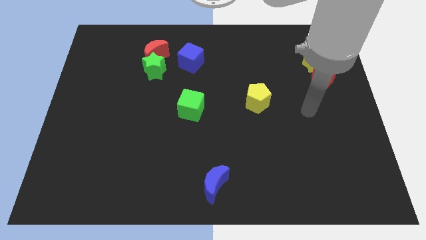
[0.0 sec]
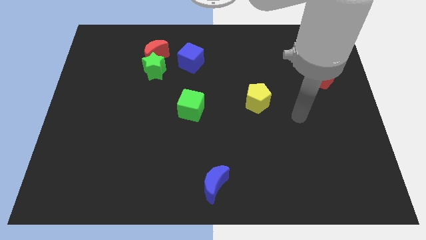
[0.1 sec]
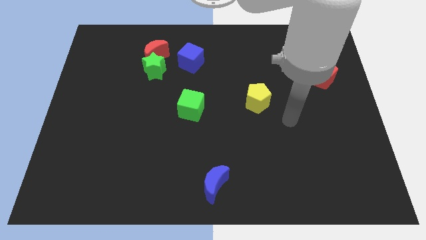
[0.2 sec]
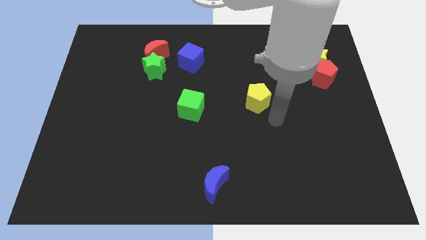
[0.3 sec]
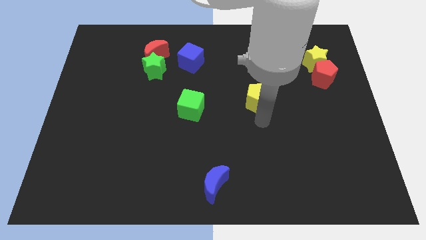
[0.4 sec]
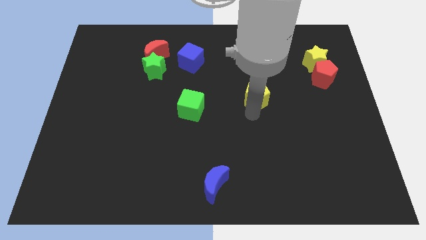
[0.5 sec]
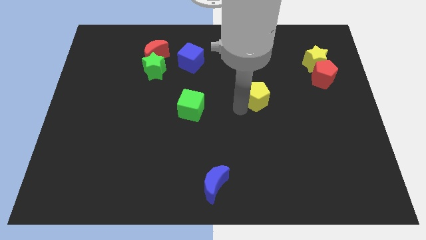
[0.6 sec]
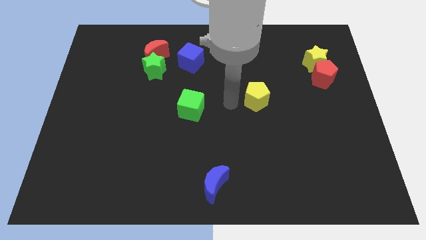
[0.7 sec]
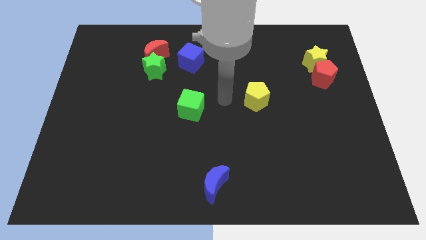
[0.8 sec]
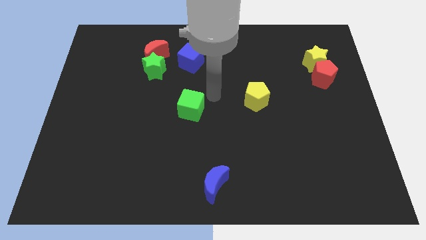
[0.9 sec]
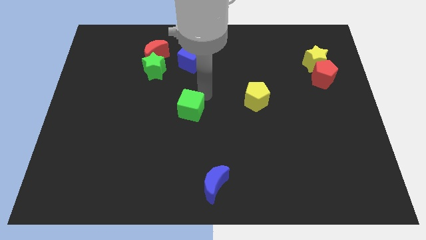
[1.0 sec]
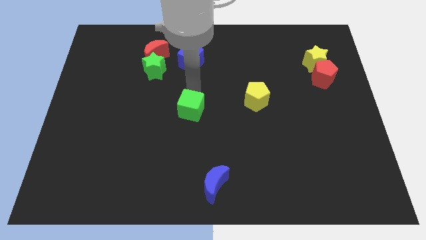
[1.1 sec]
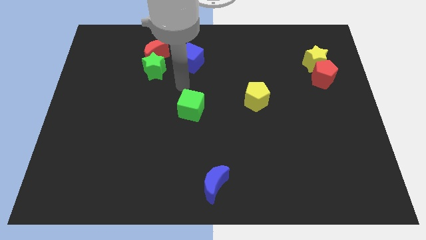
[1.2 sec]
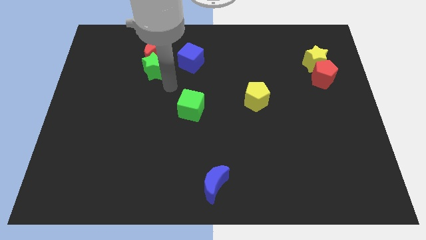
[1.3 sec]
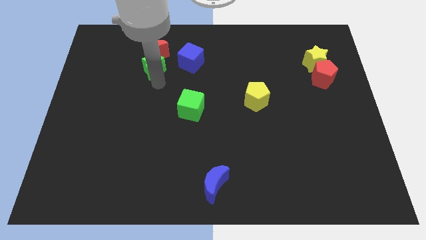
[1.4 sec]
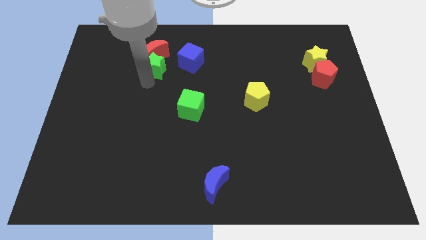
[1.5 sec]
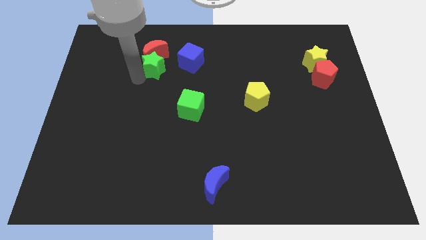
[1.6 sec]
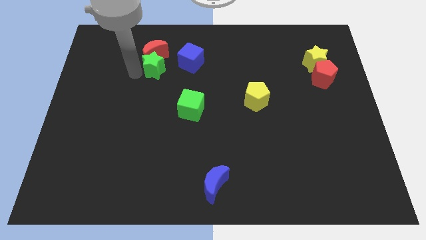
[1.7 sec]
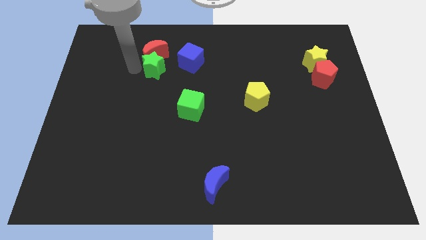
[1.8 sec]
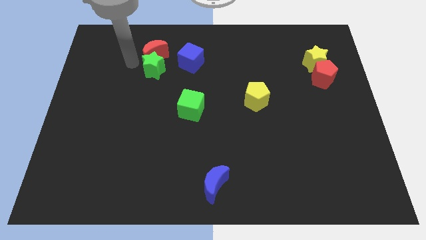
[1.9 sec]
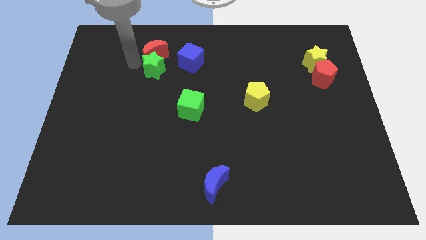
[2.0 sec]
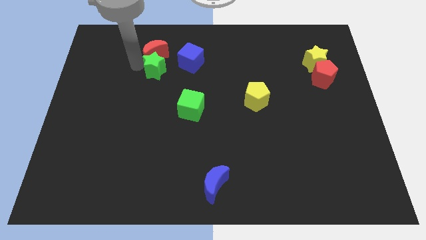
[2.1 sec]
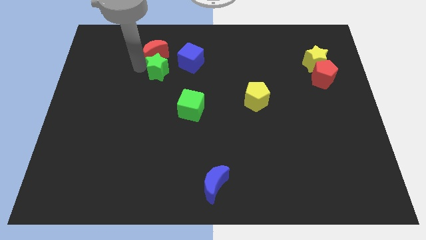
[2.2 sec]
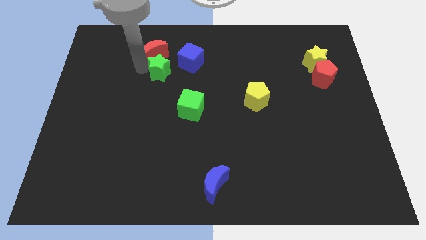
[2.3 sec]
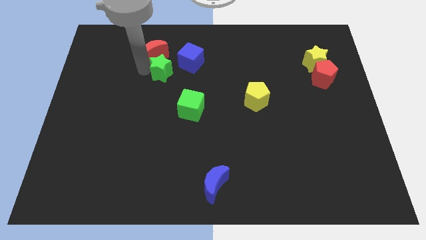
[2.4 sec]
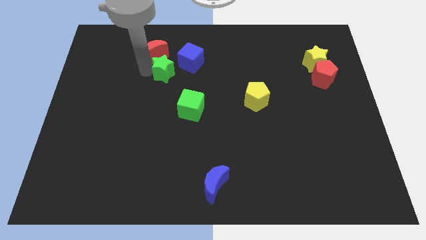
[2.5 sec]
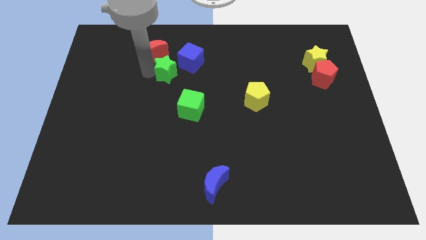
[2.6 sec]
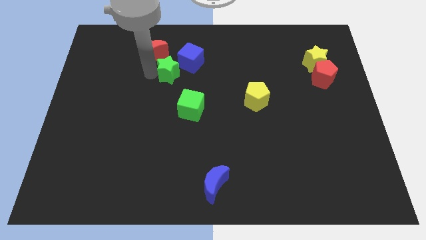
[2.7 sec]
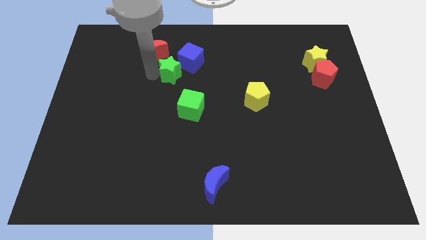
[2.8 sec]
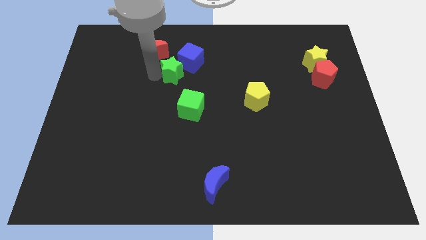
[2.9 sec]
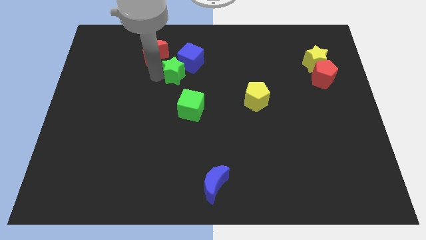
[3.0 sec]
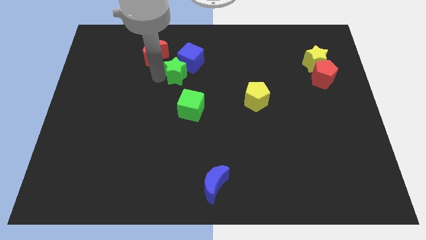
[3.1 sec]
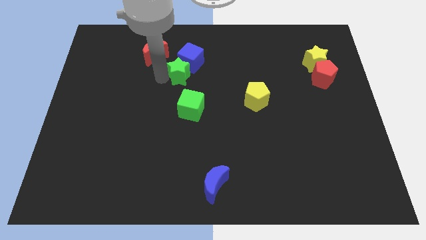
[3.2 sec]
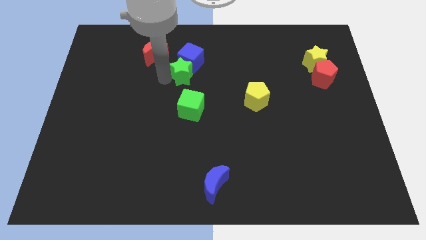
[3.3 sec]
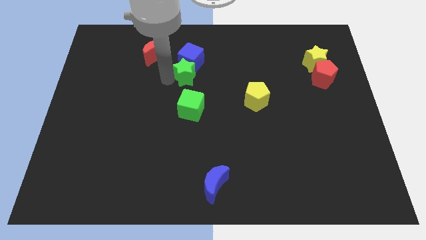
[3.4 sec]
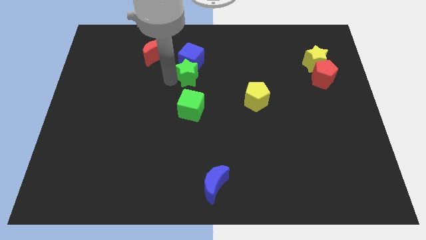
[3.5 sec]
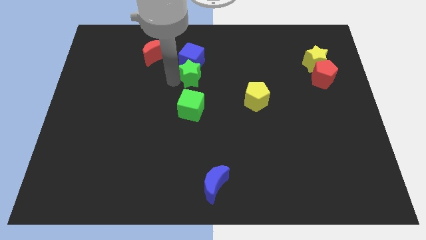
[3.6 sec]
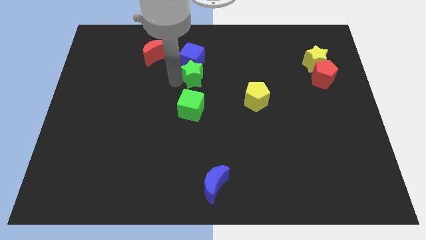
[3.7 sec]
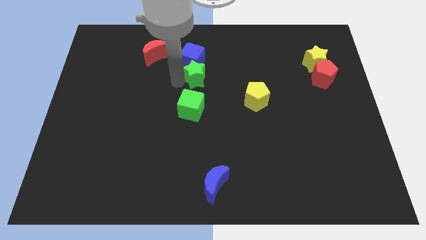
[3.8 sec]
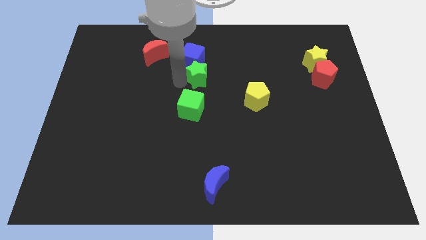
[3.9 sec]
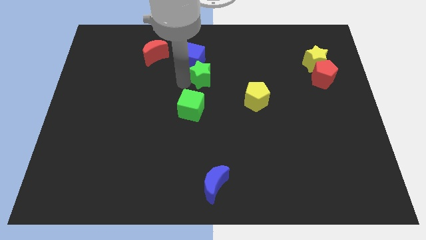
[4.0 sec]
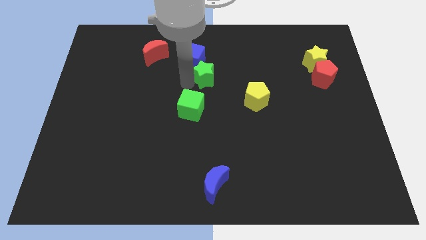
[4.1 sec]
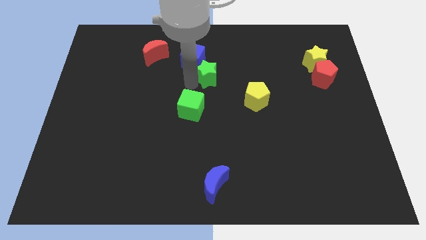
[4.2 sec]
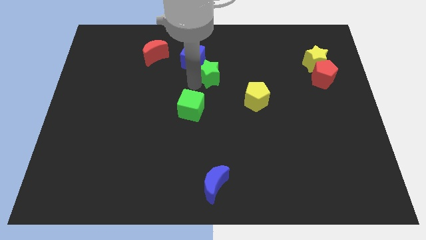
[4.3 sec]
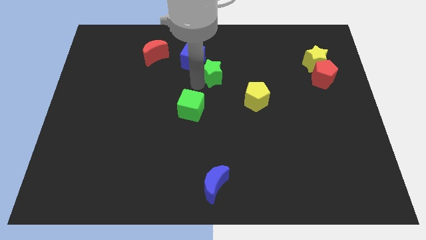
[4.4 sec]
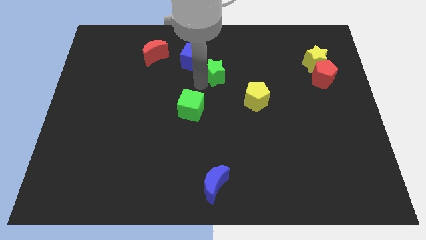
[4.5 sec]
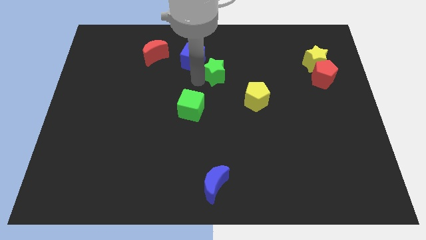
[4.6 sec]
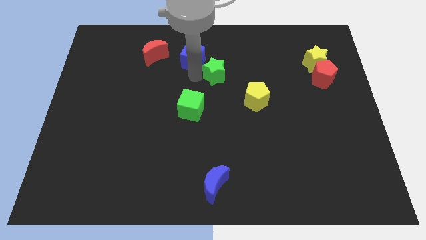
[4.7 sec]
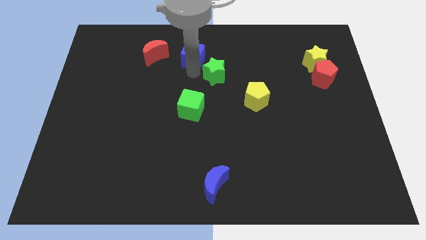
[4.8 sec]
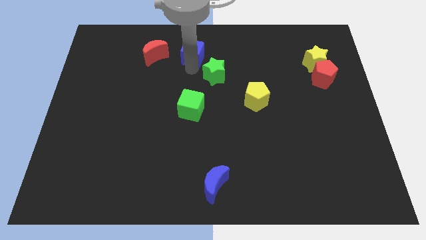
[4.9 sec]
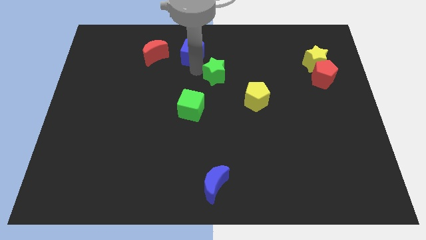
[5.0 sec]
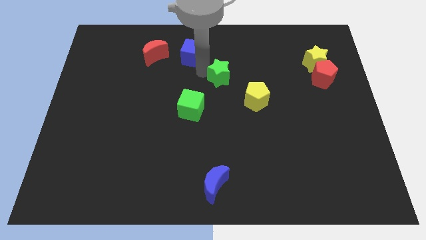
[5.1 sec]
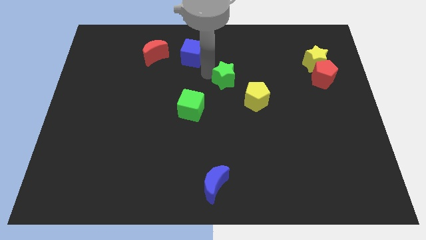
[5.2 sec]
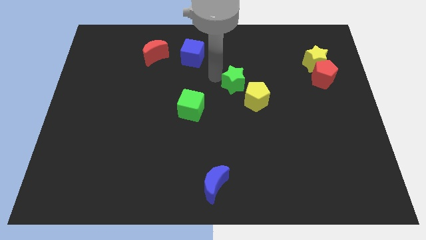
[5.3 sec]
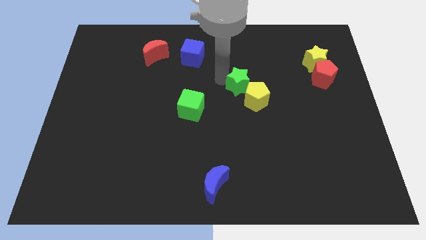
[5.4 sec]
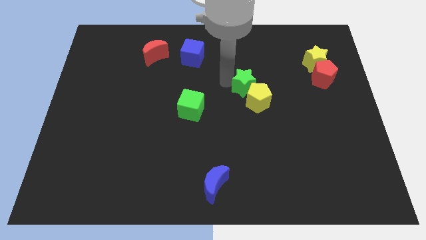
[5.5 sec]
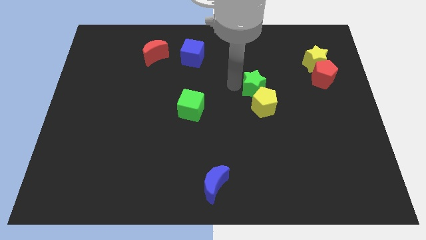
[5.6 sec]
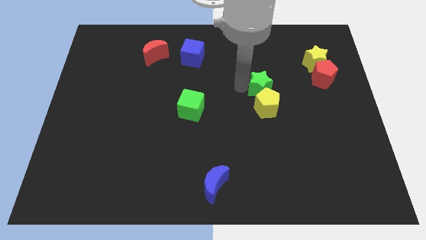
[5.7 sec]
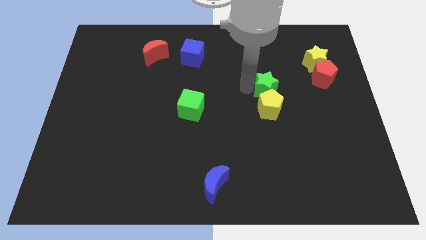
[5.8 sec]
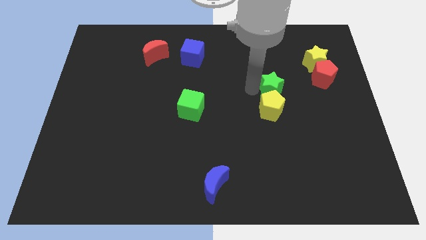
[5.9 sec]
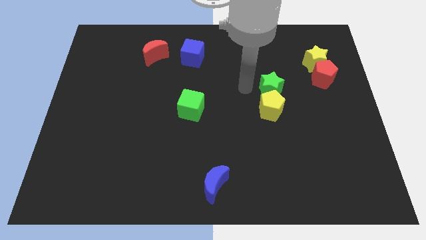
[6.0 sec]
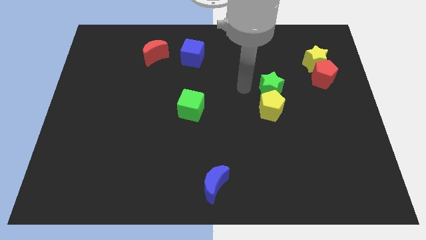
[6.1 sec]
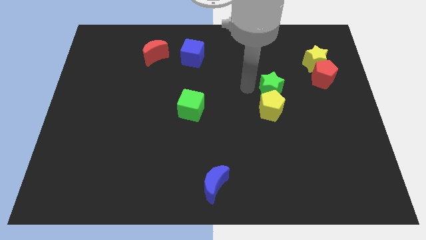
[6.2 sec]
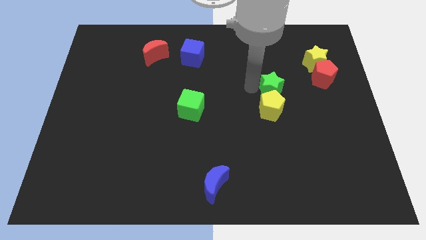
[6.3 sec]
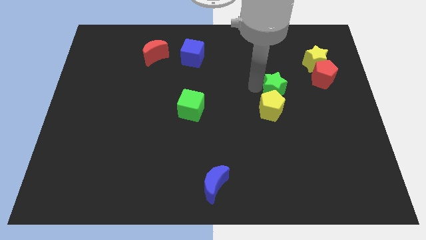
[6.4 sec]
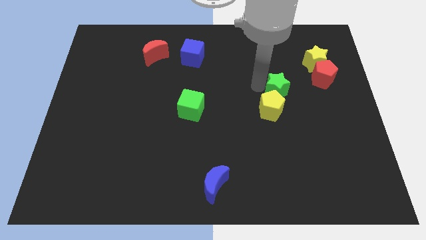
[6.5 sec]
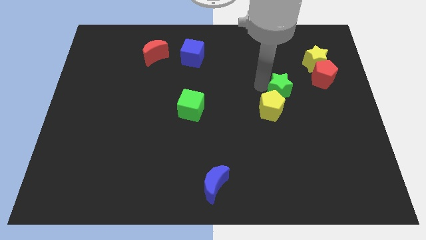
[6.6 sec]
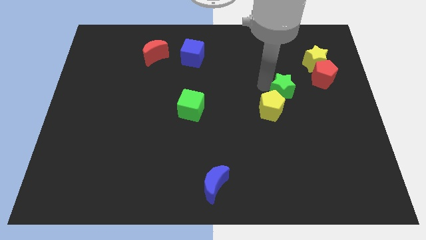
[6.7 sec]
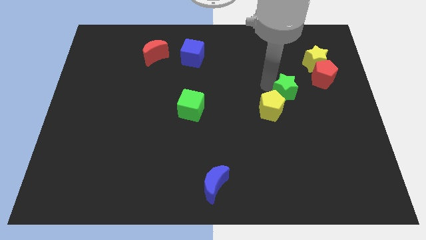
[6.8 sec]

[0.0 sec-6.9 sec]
slide the green star diagonally down and to the left of the red pentagon

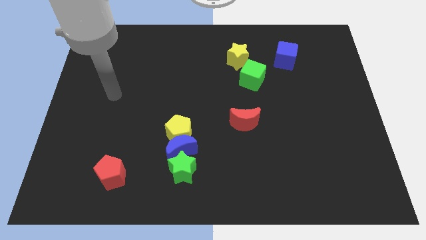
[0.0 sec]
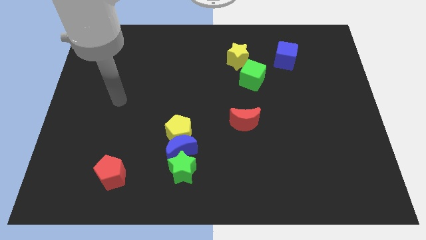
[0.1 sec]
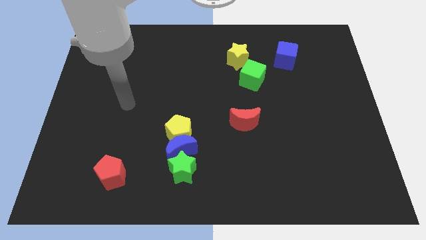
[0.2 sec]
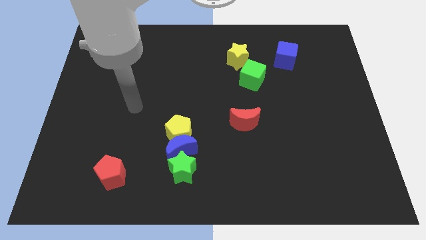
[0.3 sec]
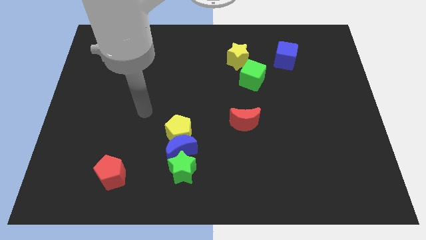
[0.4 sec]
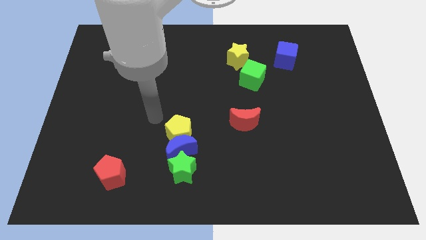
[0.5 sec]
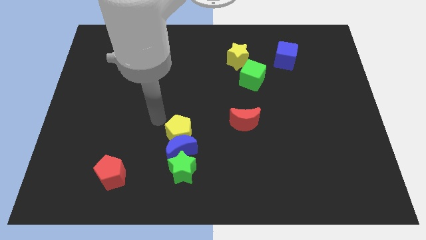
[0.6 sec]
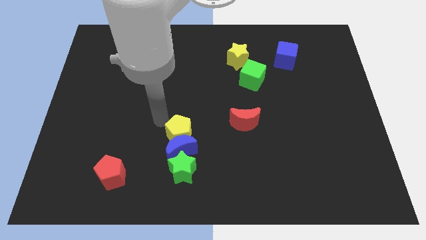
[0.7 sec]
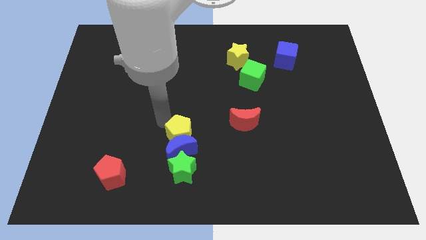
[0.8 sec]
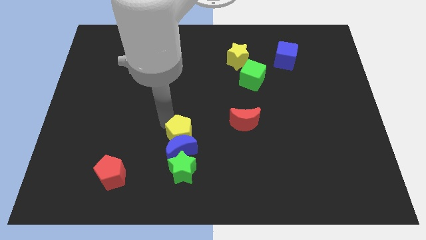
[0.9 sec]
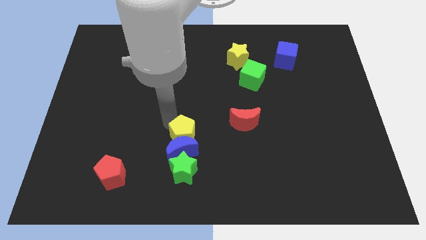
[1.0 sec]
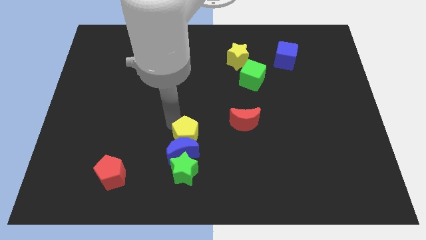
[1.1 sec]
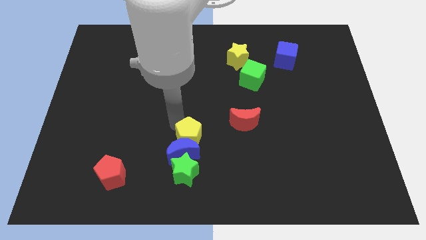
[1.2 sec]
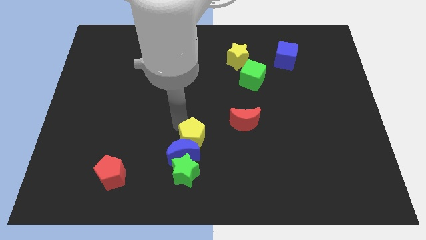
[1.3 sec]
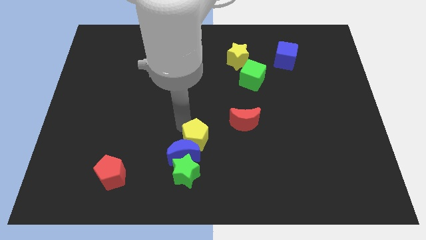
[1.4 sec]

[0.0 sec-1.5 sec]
slide the yellow pentagon diagonally up and to the right of the green star

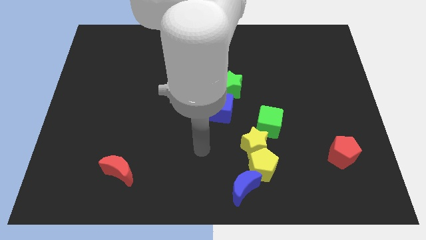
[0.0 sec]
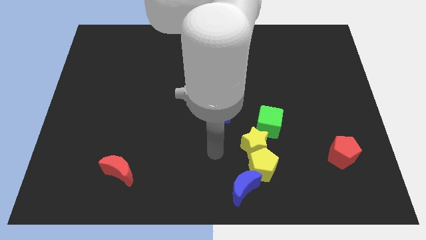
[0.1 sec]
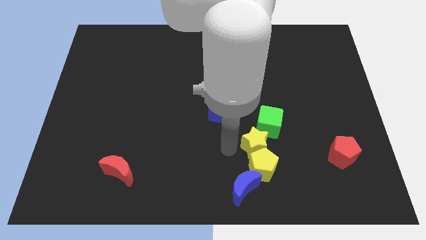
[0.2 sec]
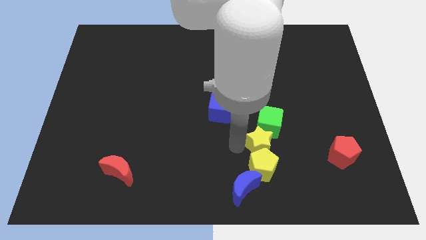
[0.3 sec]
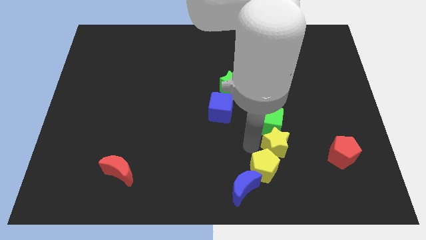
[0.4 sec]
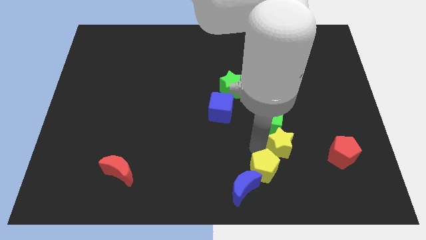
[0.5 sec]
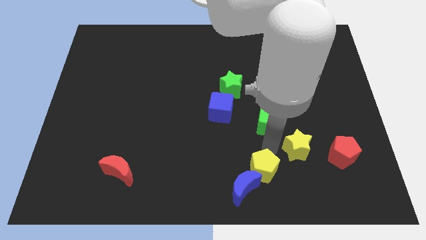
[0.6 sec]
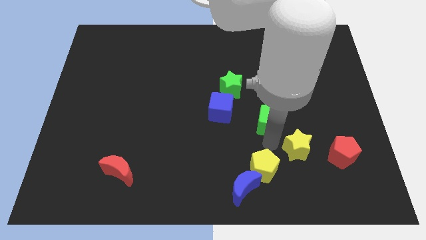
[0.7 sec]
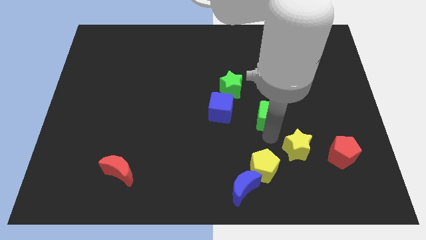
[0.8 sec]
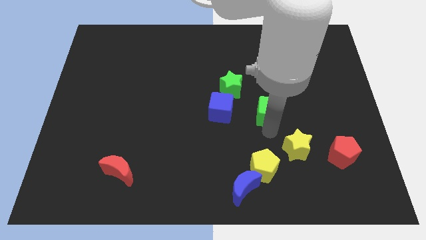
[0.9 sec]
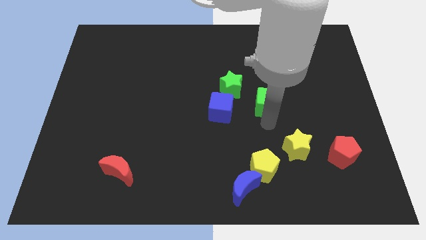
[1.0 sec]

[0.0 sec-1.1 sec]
push the green cube right of the green star
